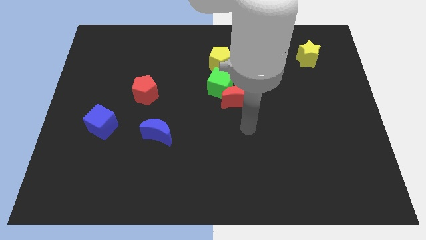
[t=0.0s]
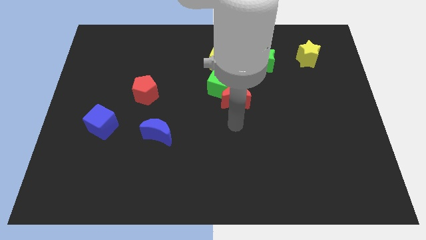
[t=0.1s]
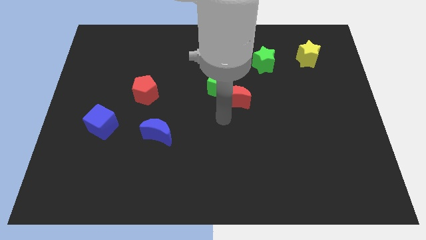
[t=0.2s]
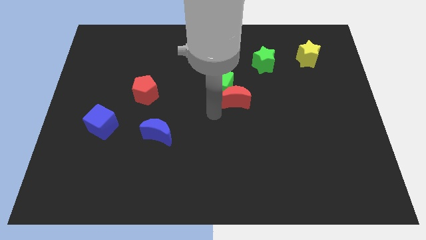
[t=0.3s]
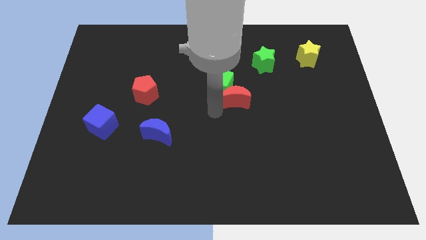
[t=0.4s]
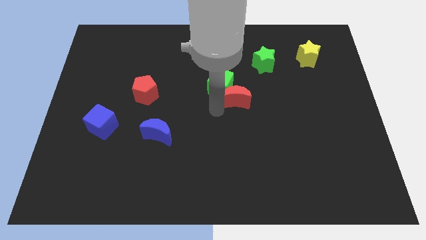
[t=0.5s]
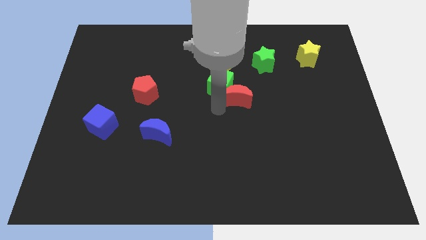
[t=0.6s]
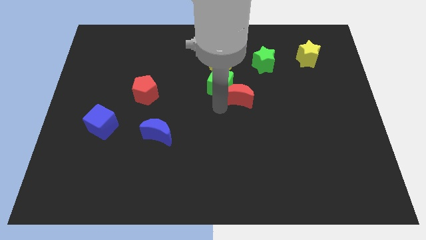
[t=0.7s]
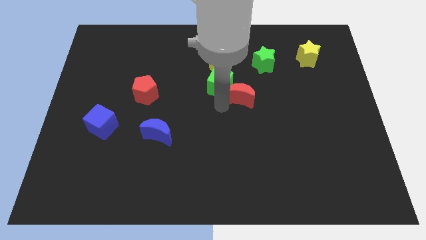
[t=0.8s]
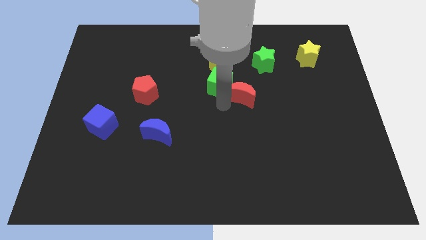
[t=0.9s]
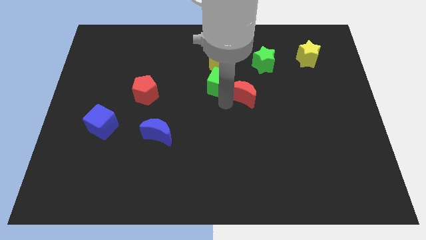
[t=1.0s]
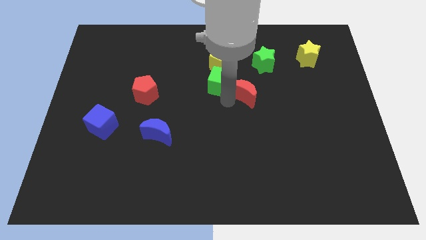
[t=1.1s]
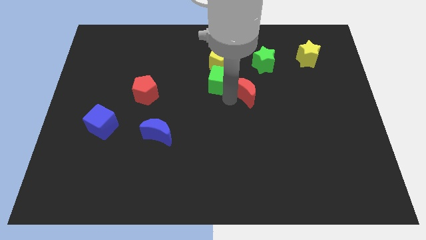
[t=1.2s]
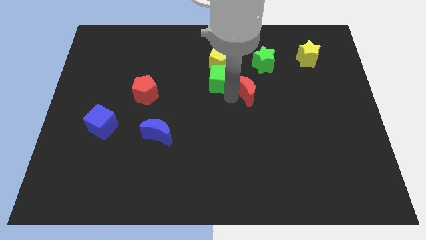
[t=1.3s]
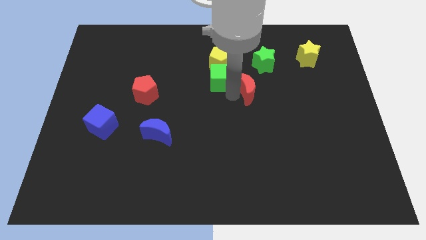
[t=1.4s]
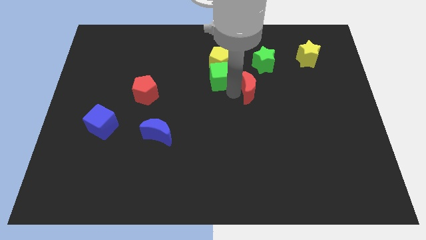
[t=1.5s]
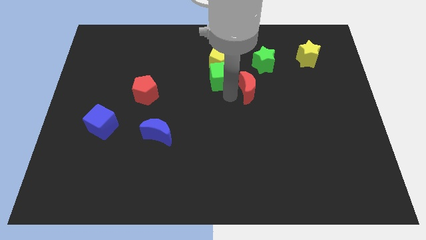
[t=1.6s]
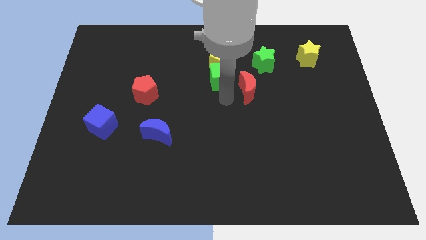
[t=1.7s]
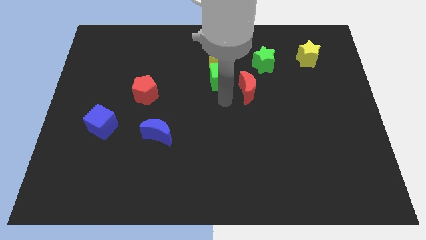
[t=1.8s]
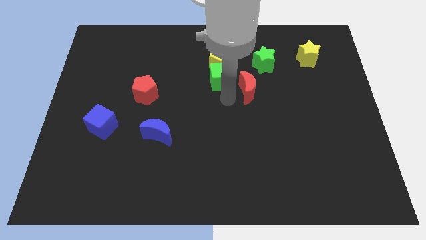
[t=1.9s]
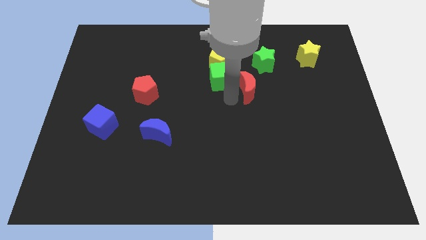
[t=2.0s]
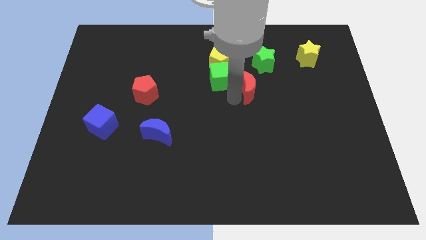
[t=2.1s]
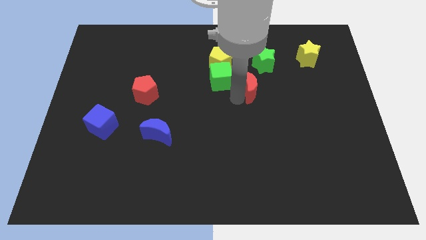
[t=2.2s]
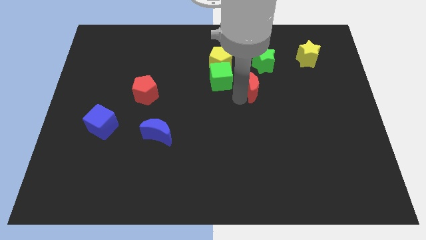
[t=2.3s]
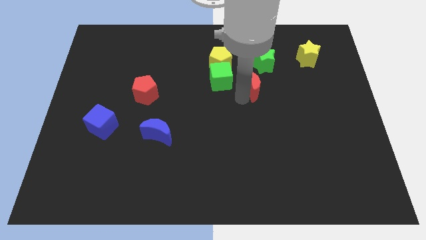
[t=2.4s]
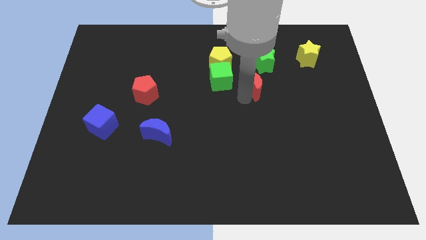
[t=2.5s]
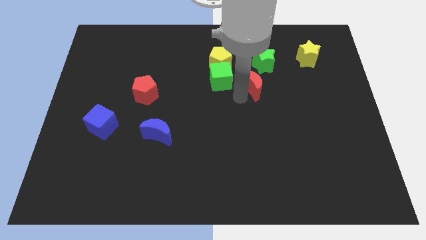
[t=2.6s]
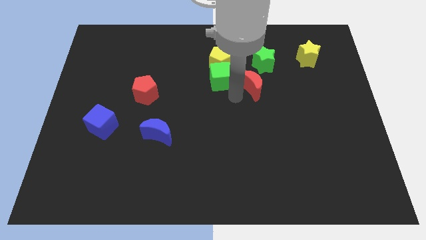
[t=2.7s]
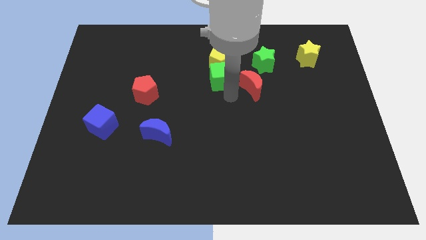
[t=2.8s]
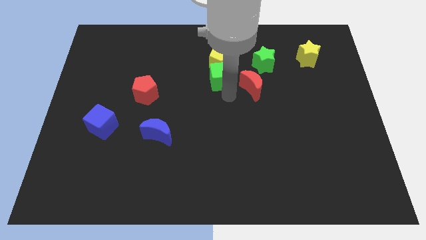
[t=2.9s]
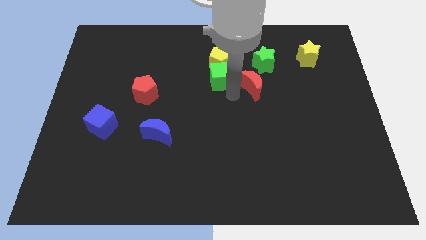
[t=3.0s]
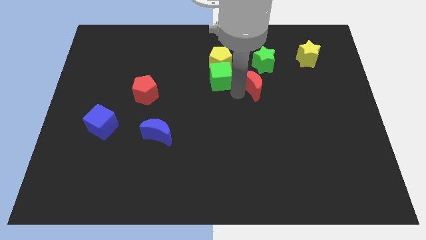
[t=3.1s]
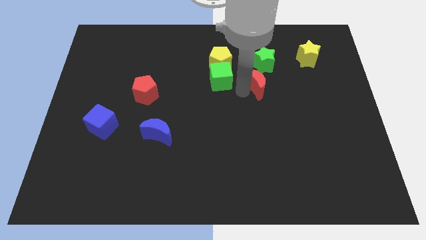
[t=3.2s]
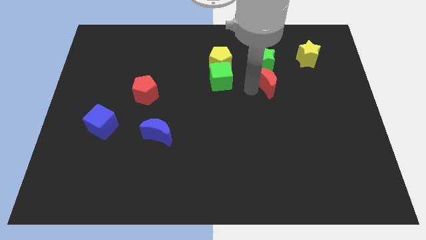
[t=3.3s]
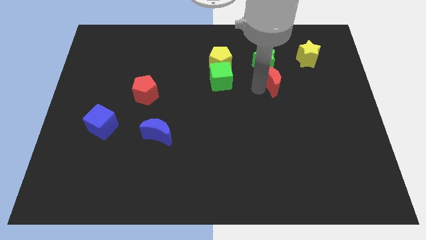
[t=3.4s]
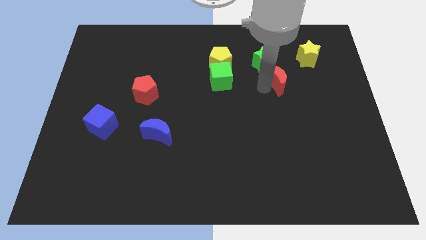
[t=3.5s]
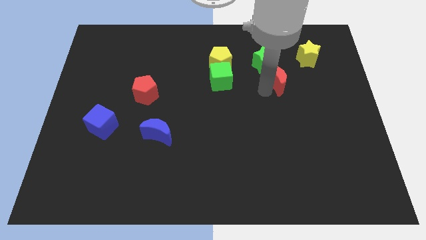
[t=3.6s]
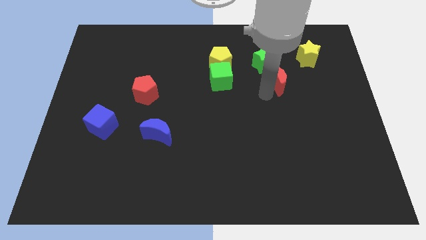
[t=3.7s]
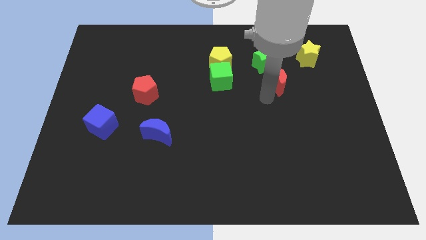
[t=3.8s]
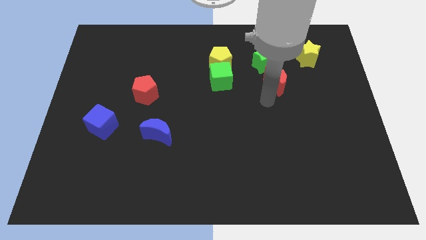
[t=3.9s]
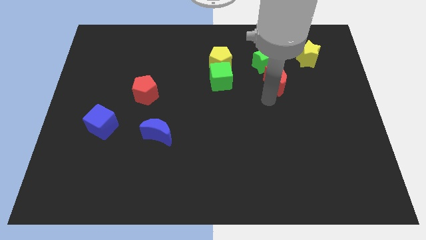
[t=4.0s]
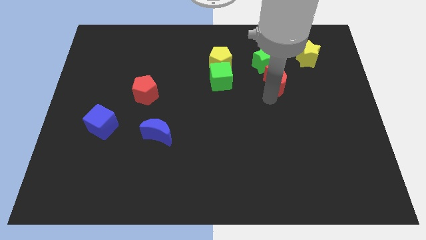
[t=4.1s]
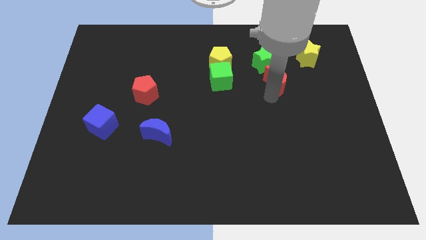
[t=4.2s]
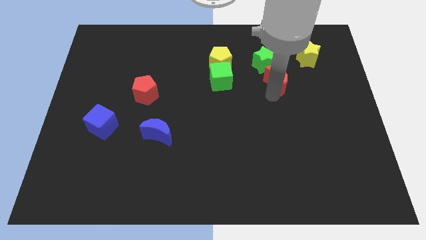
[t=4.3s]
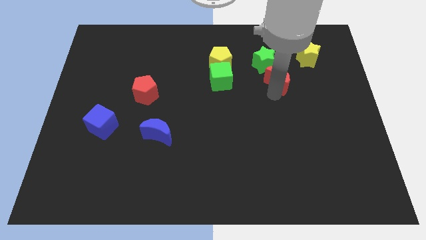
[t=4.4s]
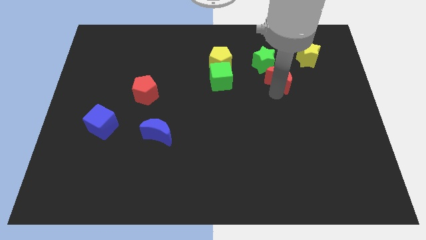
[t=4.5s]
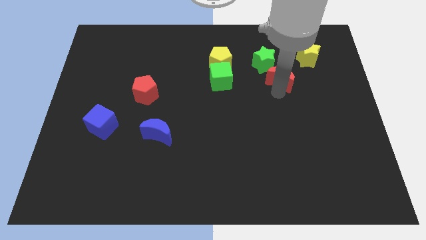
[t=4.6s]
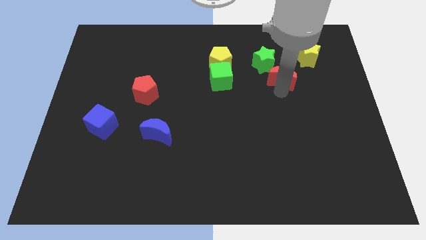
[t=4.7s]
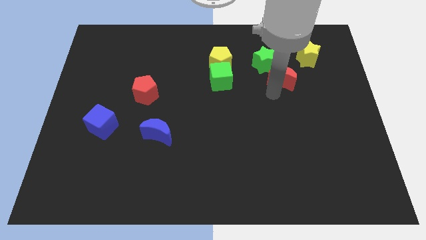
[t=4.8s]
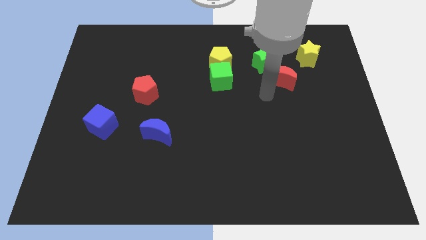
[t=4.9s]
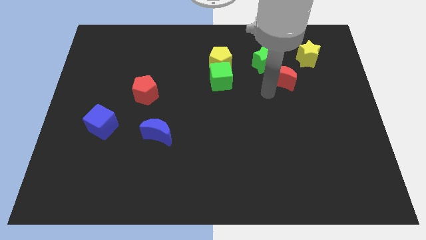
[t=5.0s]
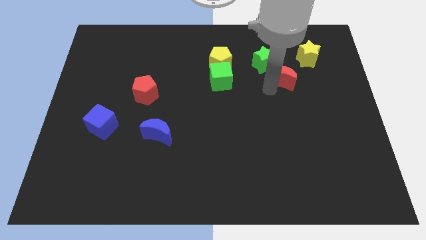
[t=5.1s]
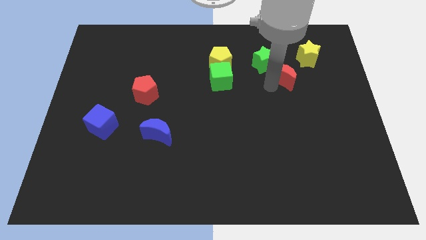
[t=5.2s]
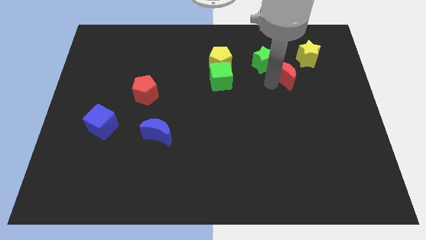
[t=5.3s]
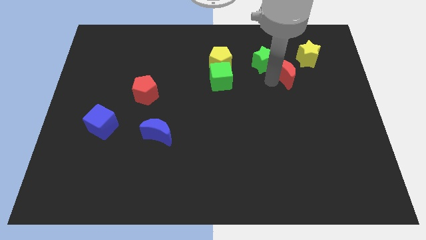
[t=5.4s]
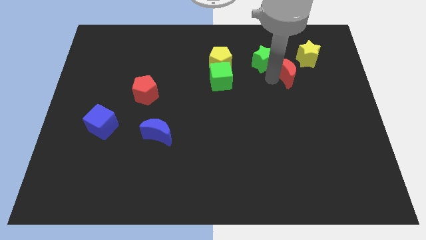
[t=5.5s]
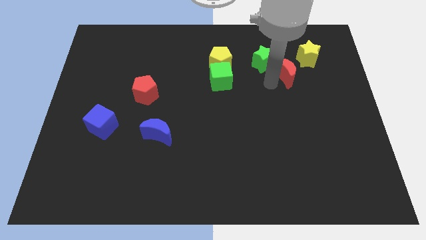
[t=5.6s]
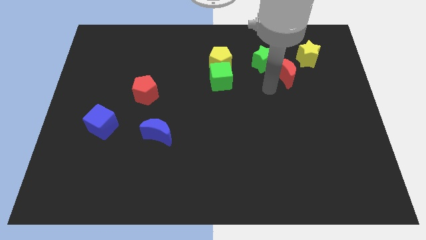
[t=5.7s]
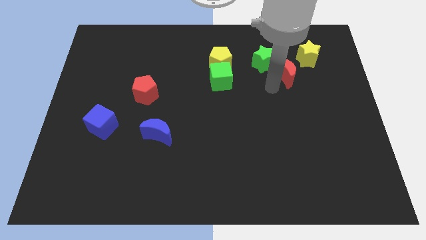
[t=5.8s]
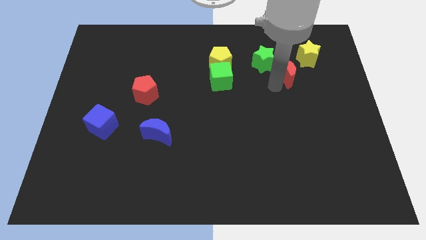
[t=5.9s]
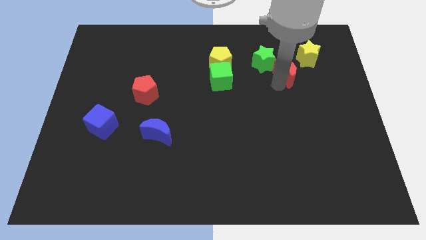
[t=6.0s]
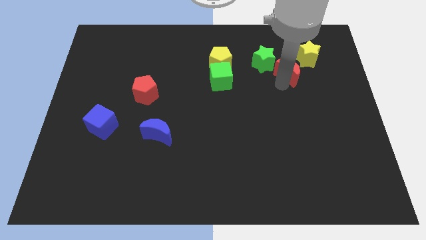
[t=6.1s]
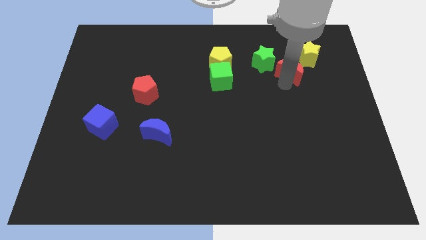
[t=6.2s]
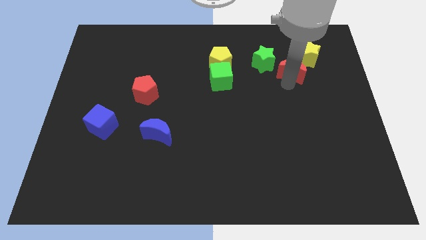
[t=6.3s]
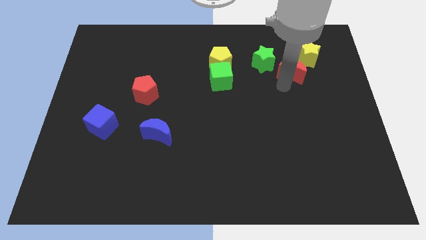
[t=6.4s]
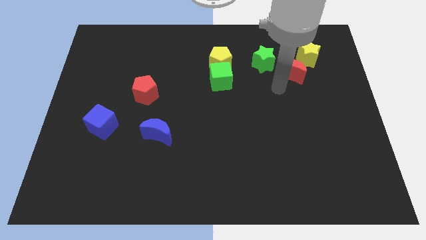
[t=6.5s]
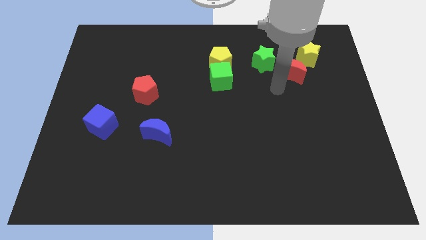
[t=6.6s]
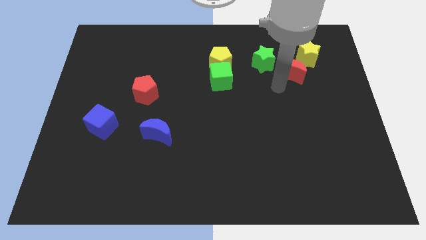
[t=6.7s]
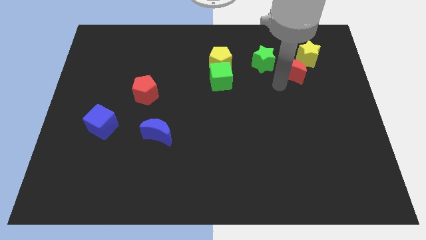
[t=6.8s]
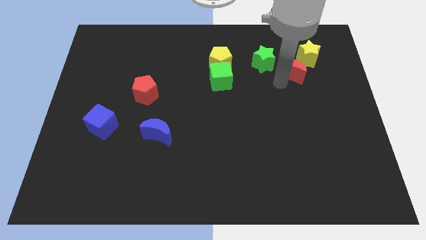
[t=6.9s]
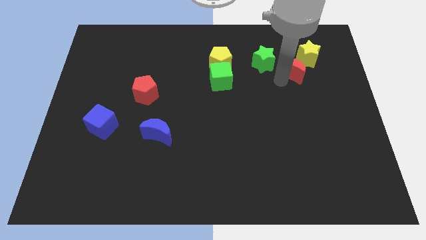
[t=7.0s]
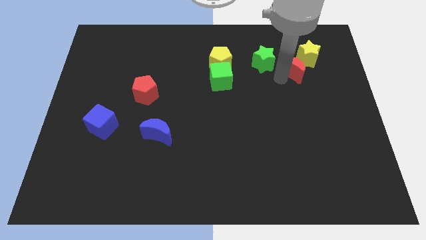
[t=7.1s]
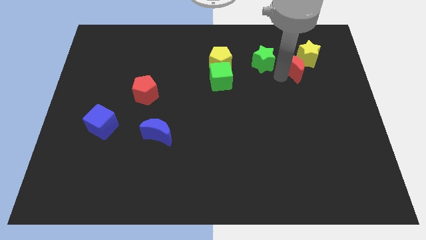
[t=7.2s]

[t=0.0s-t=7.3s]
put the red moon next to the yellow star

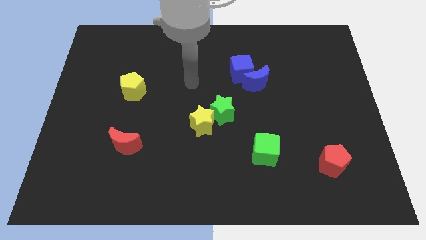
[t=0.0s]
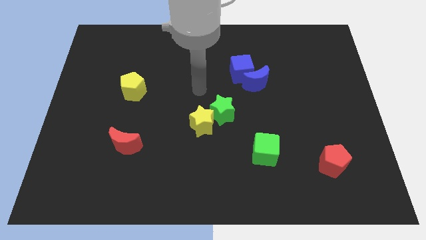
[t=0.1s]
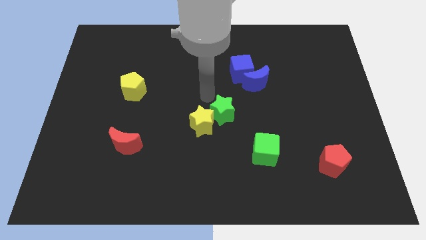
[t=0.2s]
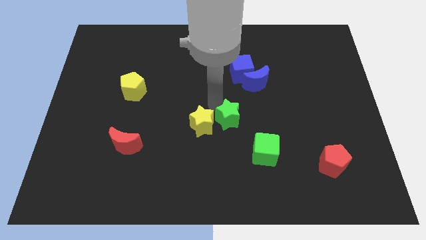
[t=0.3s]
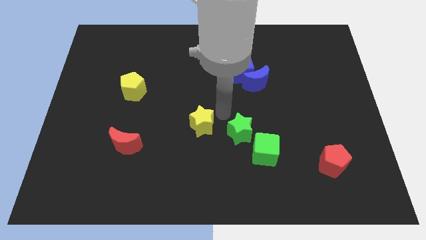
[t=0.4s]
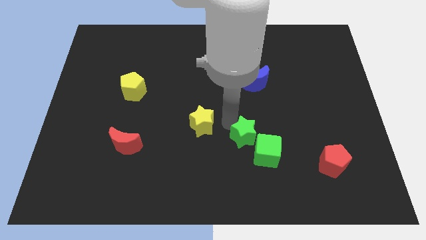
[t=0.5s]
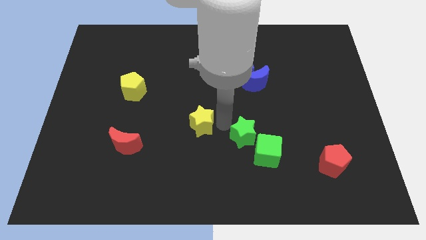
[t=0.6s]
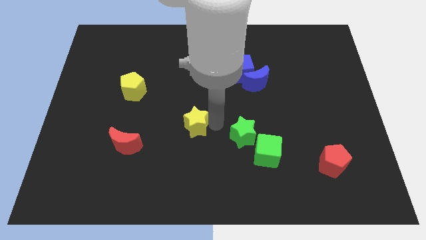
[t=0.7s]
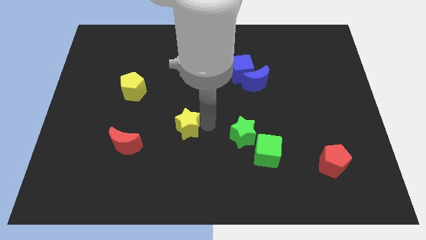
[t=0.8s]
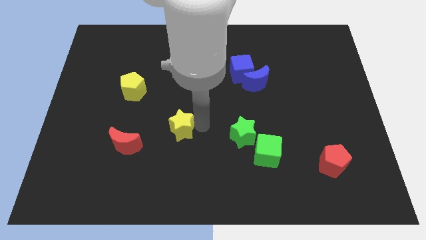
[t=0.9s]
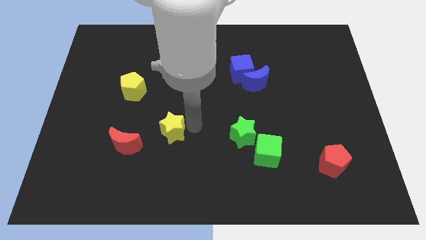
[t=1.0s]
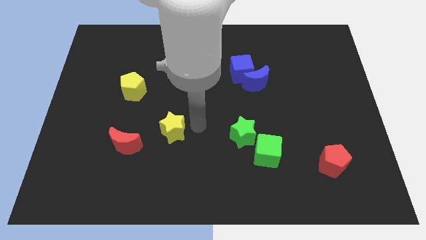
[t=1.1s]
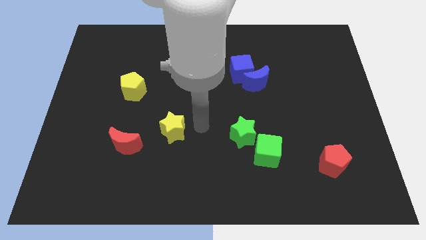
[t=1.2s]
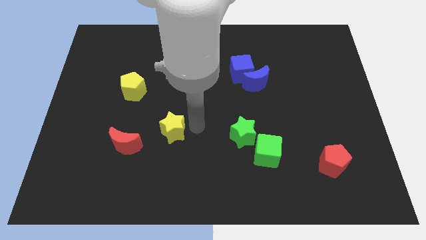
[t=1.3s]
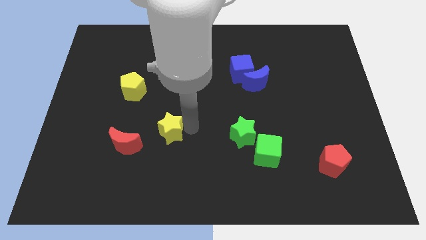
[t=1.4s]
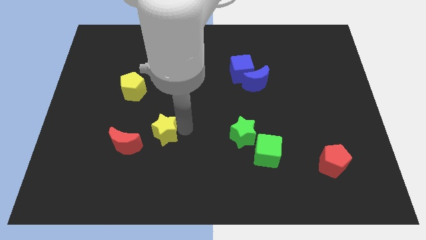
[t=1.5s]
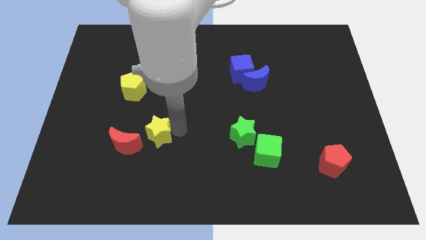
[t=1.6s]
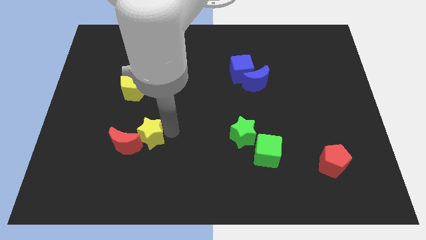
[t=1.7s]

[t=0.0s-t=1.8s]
move the yellow star close to the red moon
